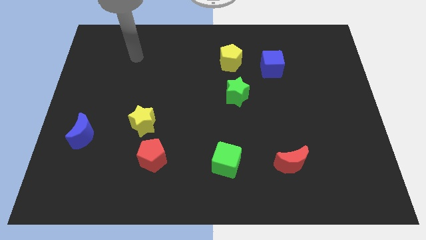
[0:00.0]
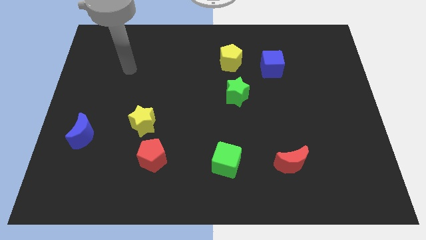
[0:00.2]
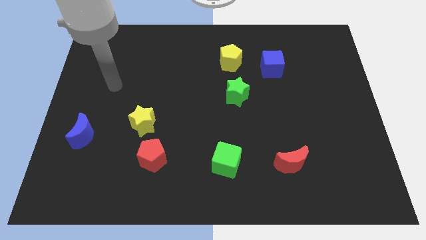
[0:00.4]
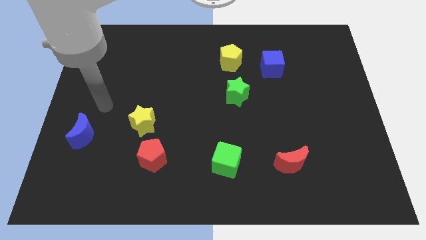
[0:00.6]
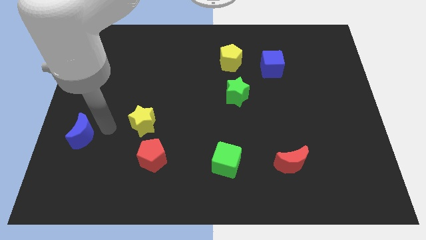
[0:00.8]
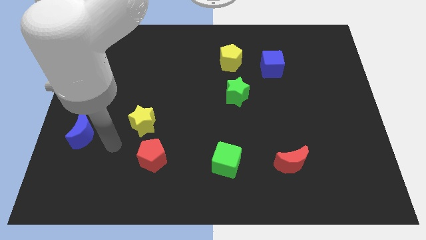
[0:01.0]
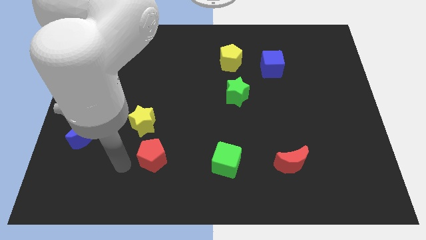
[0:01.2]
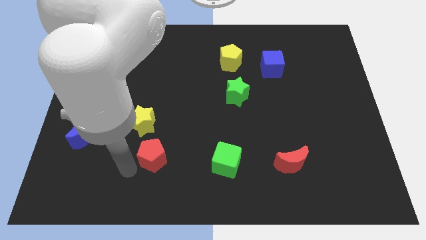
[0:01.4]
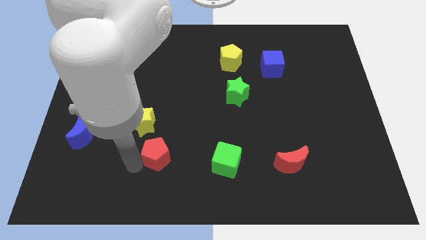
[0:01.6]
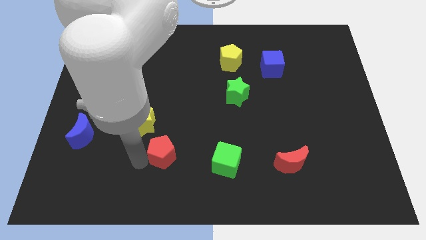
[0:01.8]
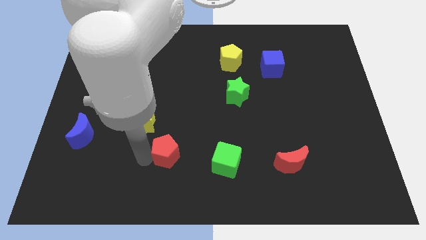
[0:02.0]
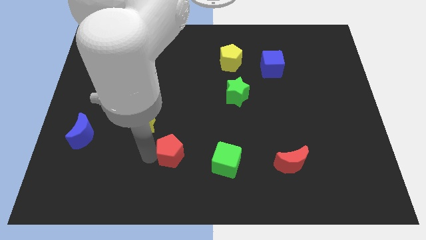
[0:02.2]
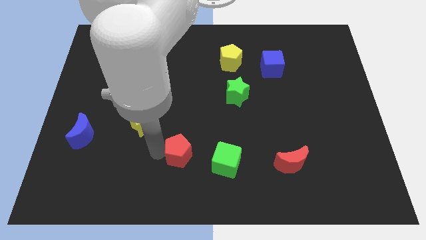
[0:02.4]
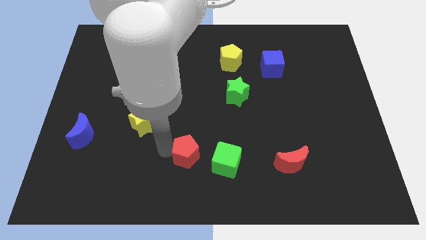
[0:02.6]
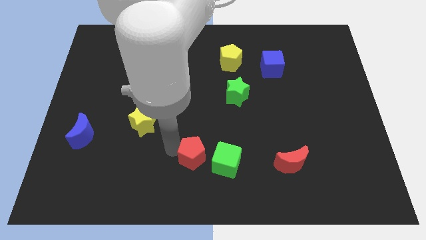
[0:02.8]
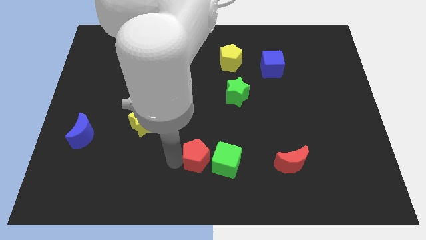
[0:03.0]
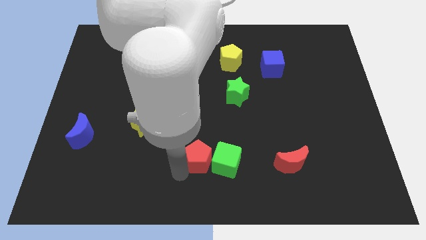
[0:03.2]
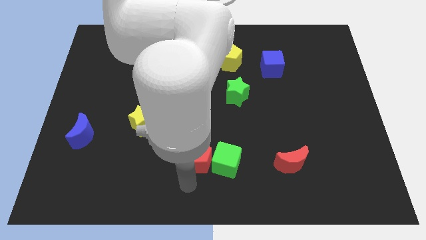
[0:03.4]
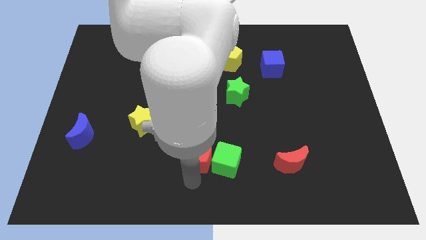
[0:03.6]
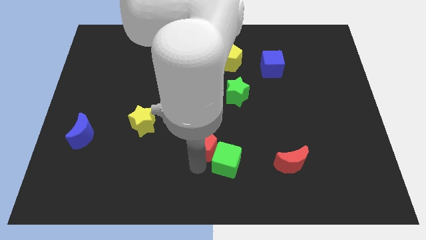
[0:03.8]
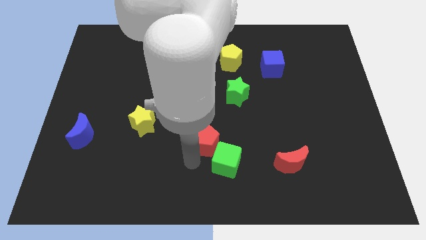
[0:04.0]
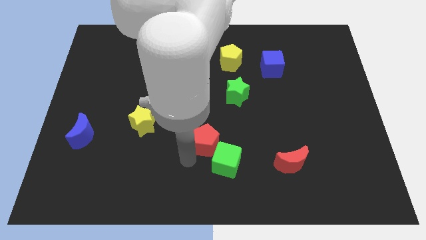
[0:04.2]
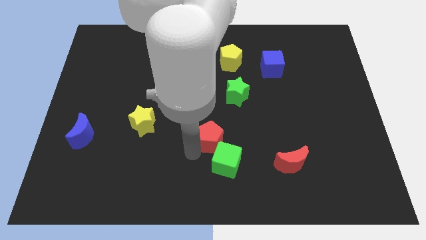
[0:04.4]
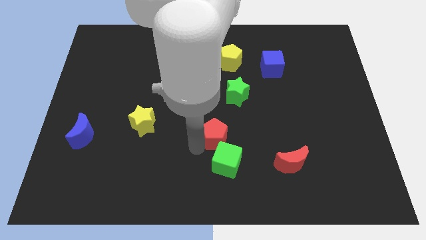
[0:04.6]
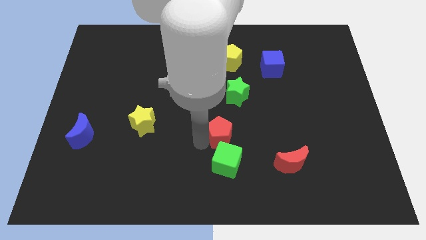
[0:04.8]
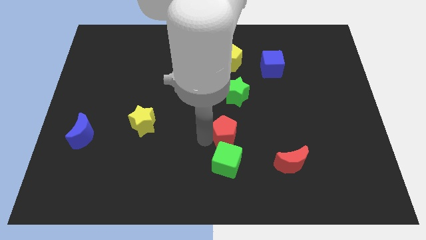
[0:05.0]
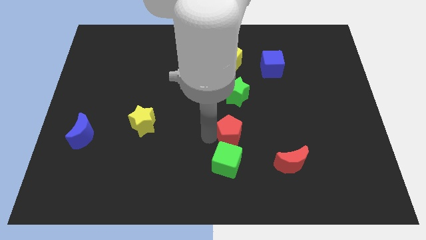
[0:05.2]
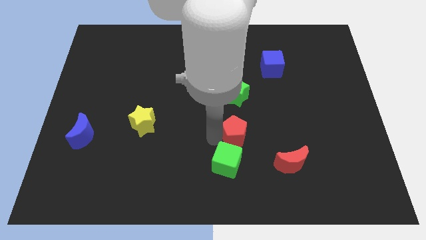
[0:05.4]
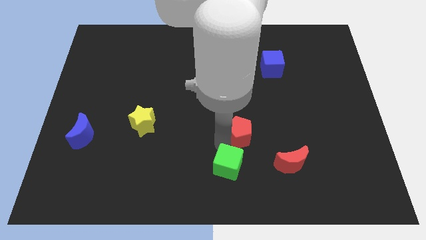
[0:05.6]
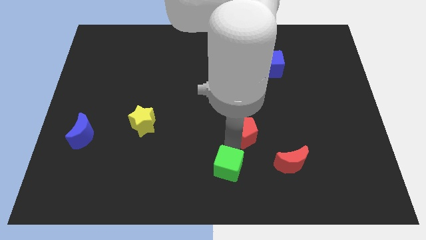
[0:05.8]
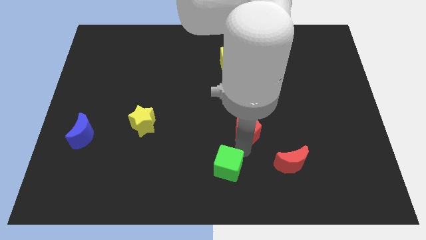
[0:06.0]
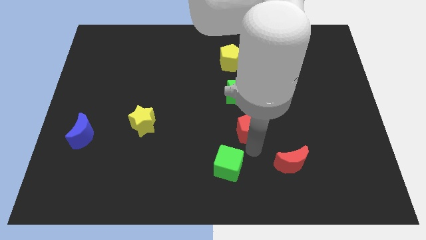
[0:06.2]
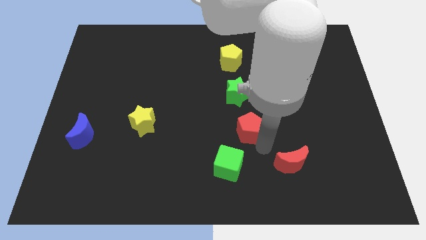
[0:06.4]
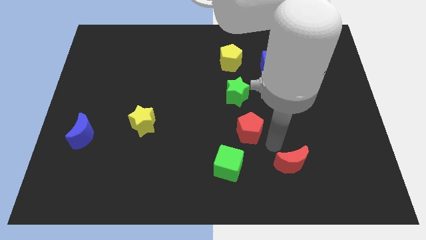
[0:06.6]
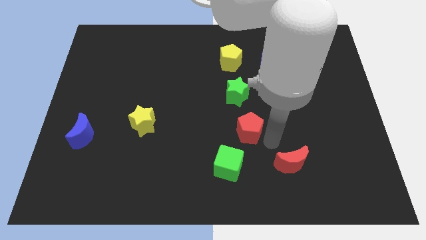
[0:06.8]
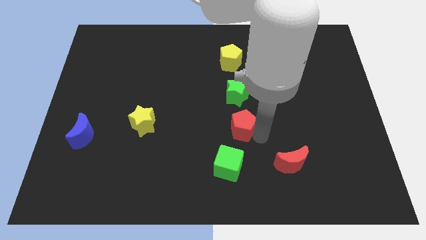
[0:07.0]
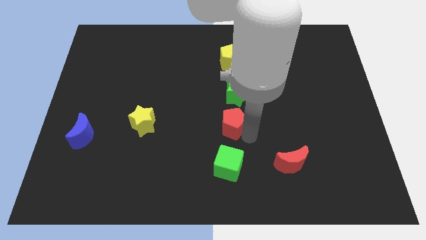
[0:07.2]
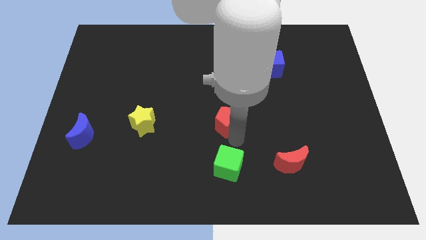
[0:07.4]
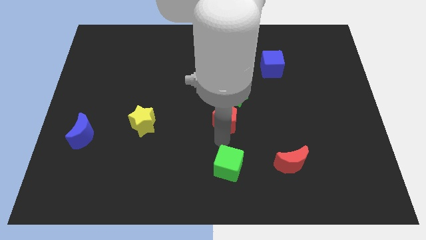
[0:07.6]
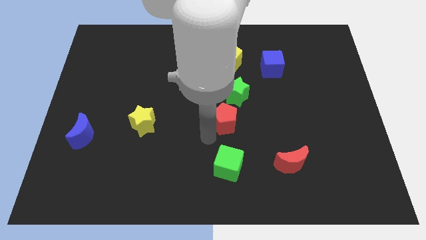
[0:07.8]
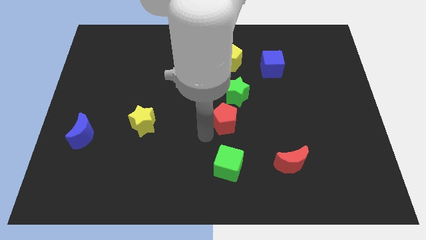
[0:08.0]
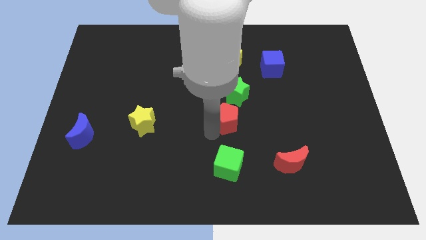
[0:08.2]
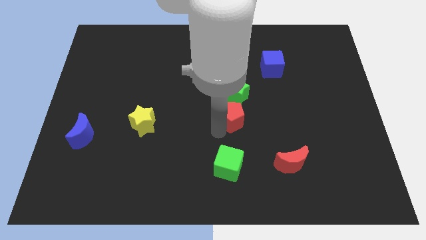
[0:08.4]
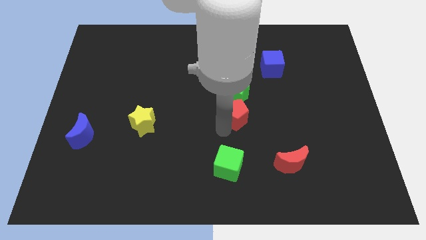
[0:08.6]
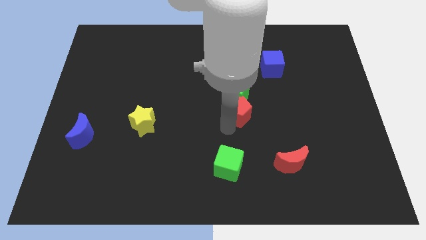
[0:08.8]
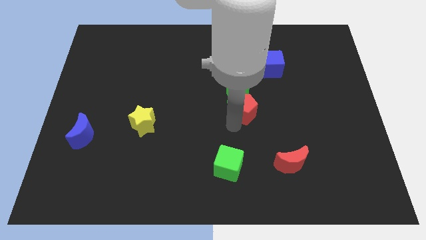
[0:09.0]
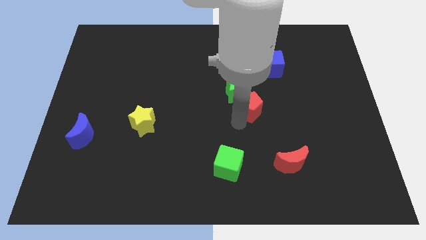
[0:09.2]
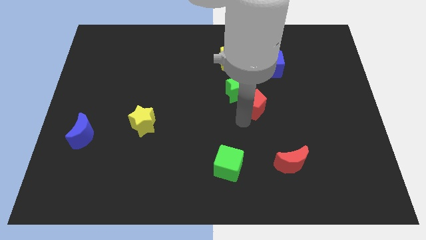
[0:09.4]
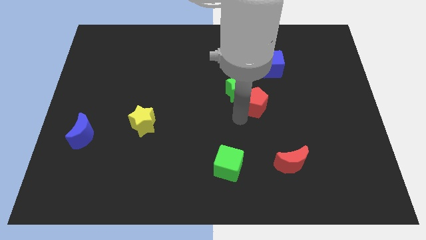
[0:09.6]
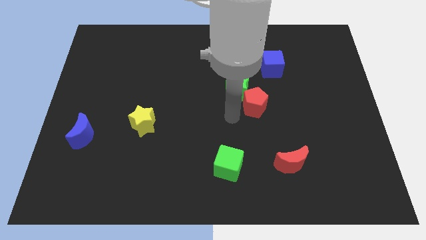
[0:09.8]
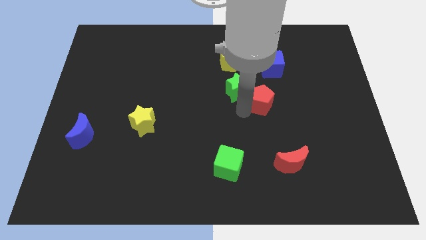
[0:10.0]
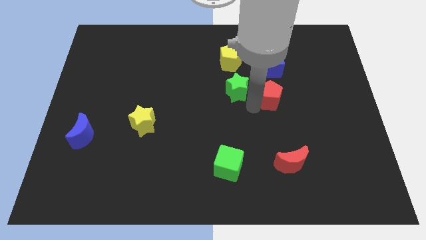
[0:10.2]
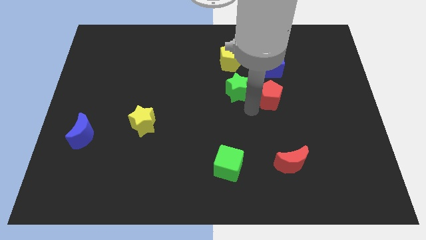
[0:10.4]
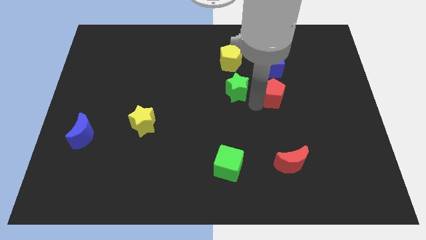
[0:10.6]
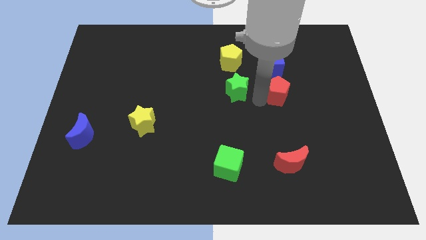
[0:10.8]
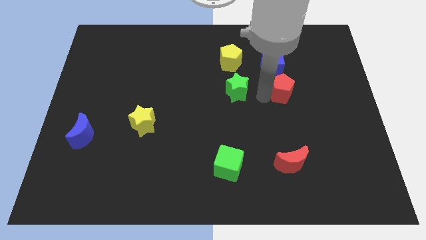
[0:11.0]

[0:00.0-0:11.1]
put the red pentagon to the bottom right of the blue cube

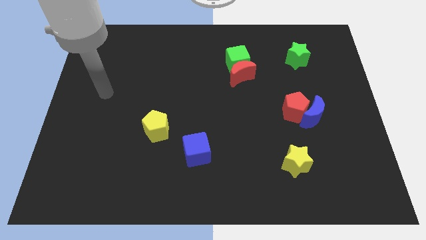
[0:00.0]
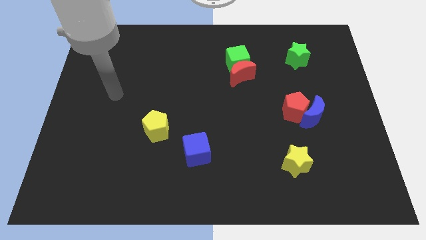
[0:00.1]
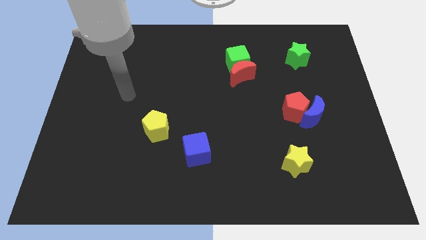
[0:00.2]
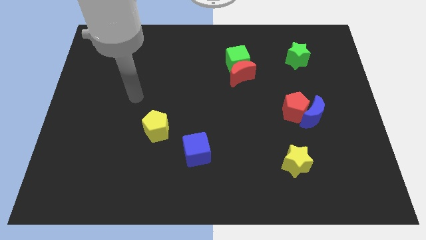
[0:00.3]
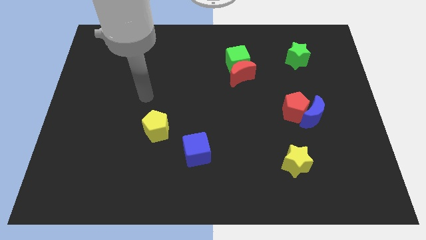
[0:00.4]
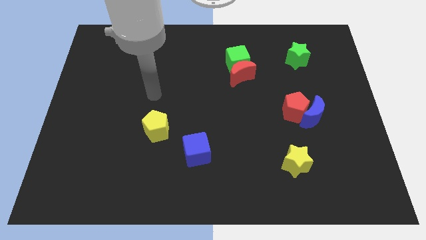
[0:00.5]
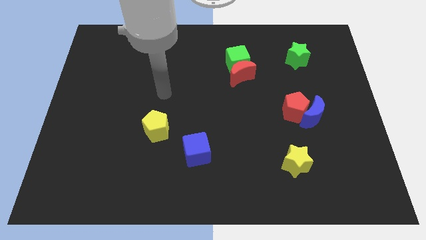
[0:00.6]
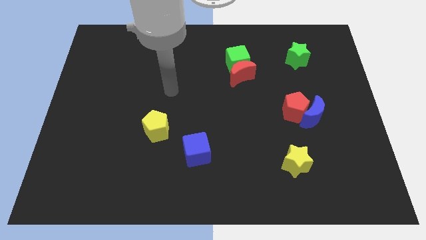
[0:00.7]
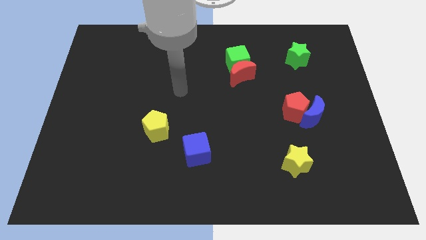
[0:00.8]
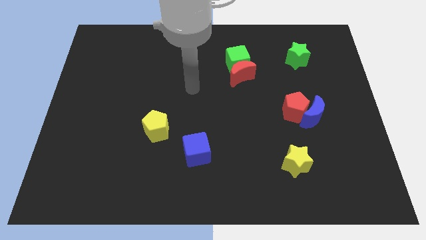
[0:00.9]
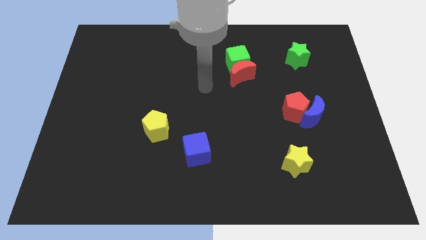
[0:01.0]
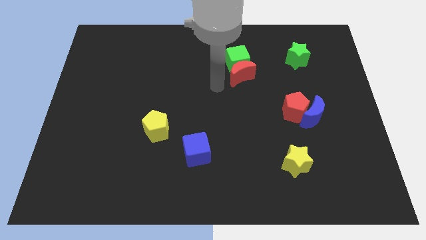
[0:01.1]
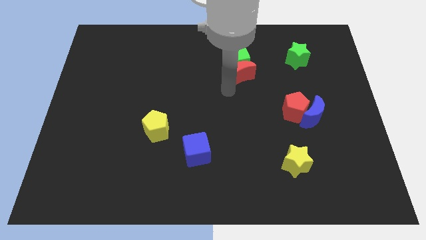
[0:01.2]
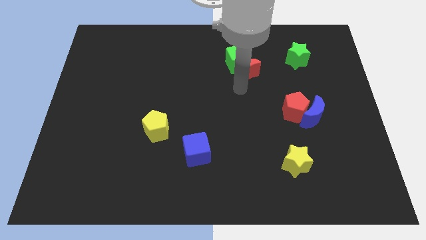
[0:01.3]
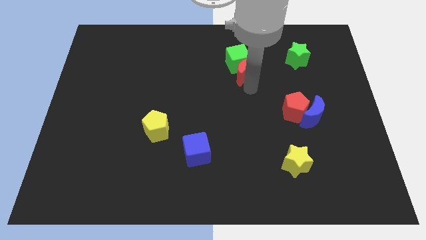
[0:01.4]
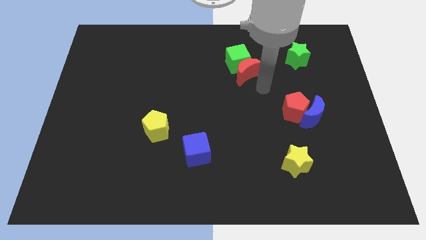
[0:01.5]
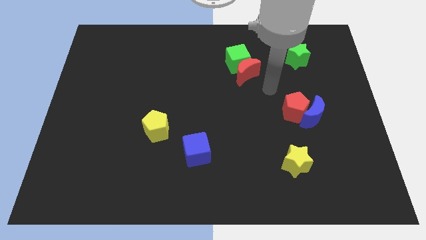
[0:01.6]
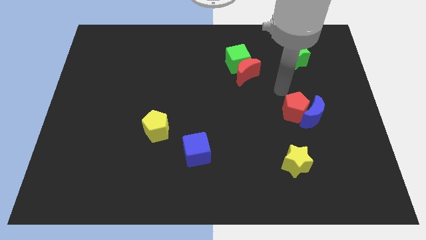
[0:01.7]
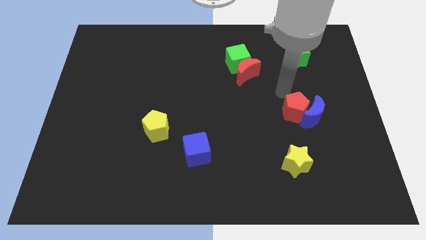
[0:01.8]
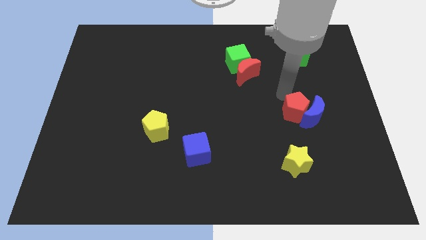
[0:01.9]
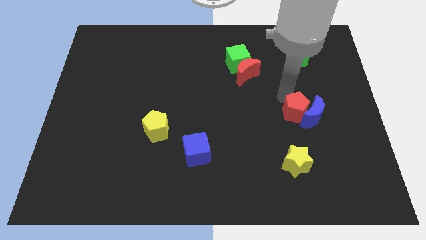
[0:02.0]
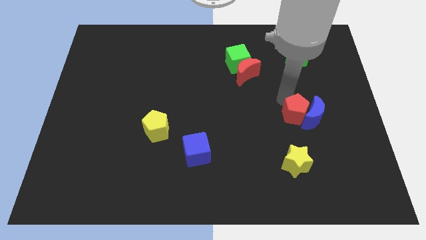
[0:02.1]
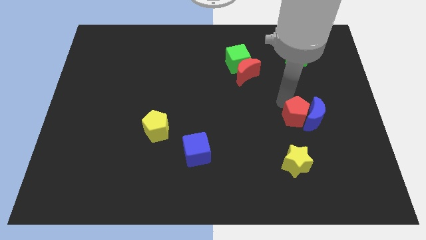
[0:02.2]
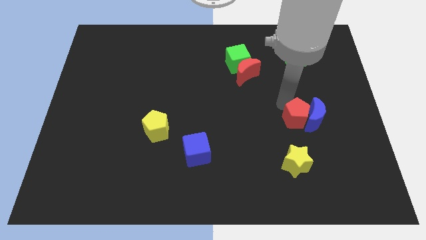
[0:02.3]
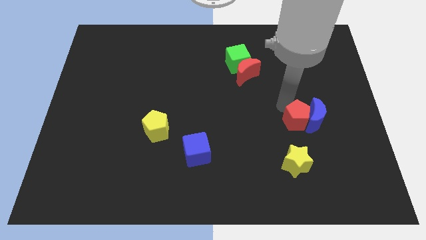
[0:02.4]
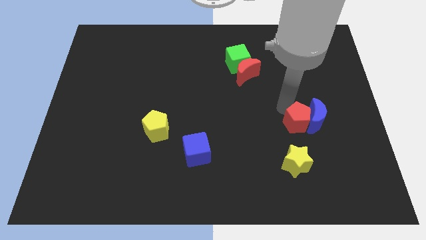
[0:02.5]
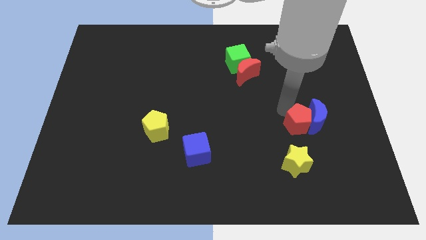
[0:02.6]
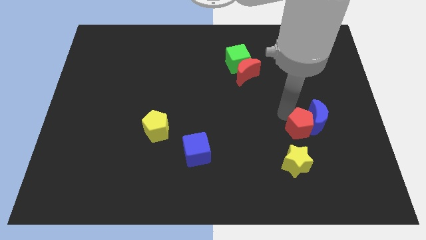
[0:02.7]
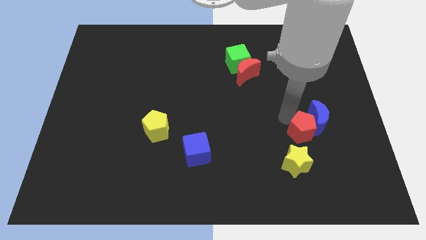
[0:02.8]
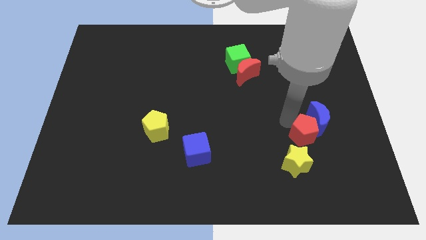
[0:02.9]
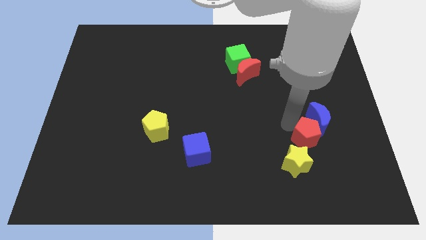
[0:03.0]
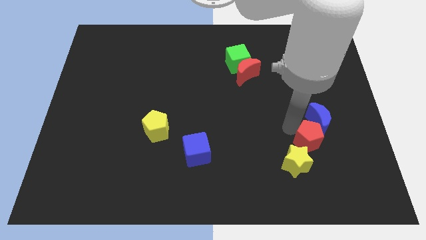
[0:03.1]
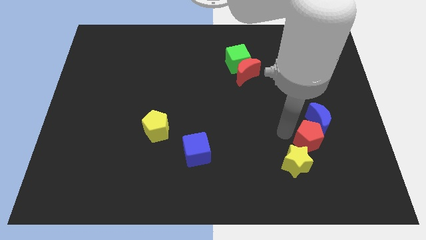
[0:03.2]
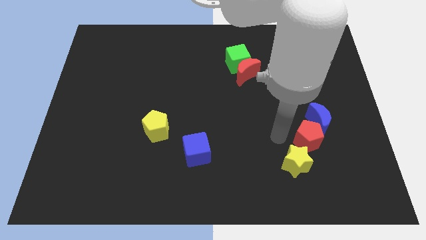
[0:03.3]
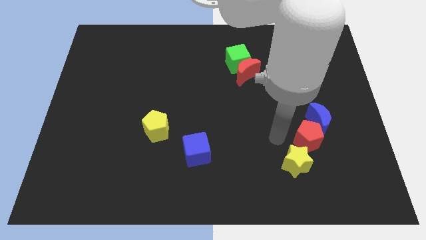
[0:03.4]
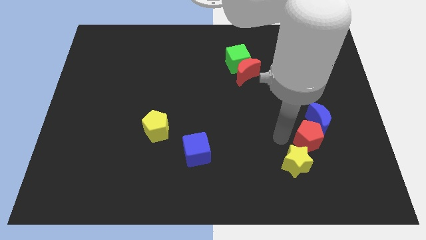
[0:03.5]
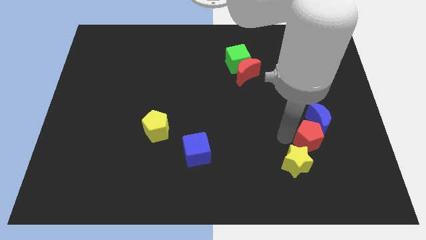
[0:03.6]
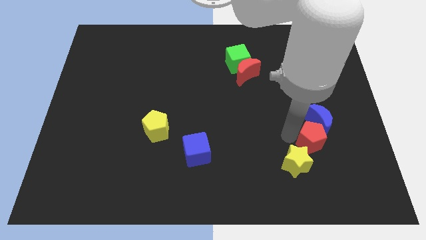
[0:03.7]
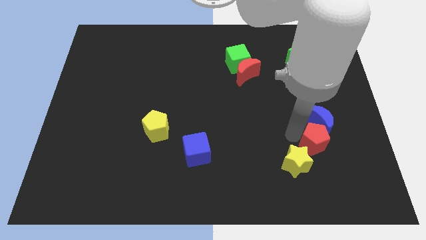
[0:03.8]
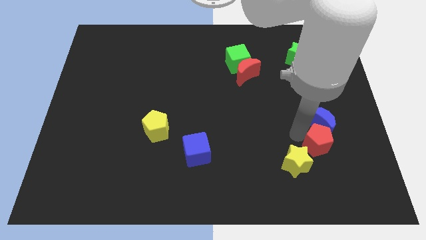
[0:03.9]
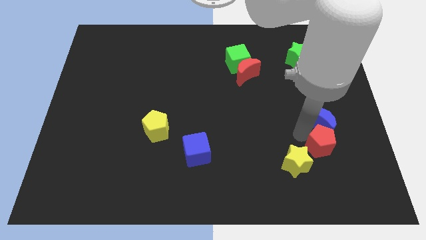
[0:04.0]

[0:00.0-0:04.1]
push the red pentagon diagonally down and to the right of the blue moon
